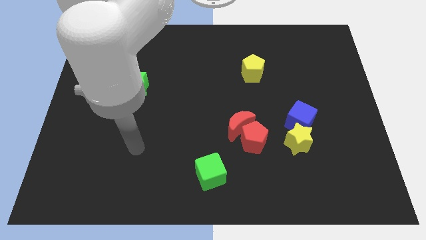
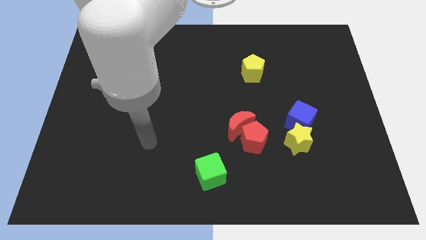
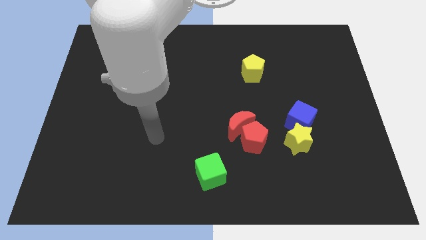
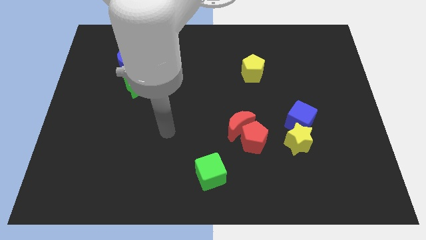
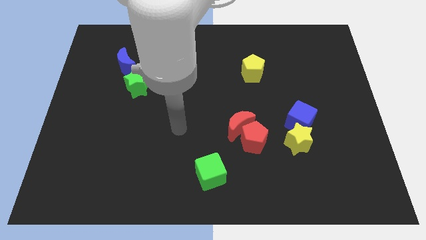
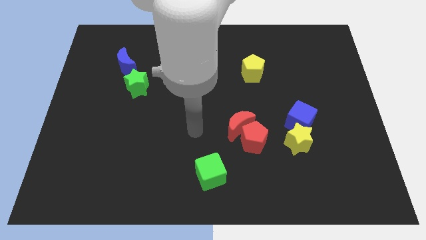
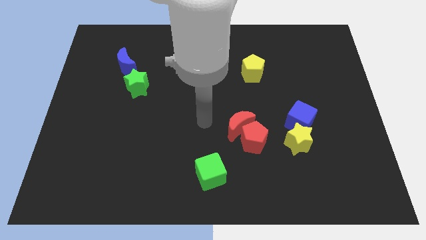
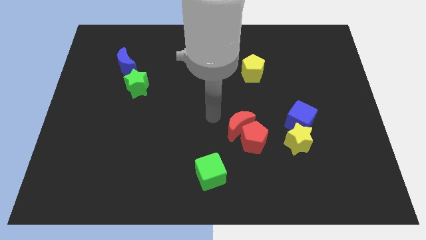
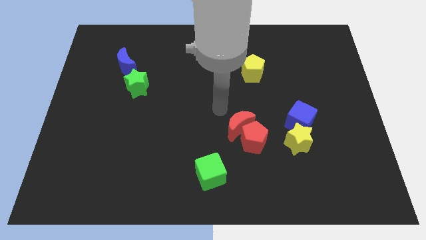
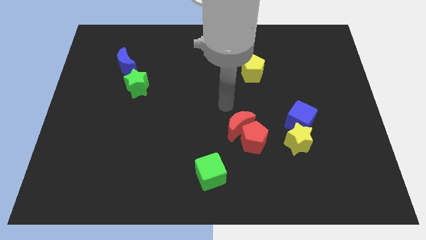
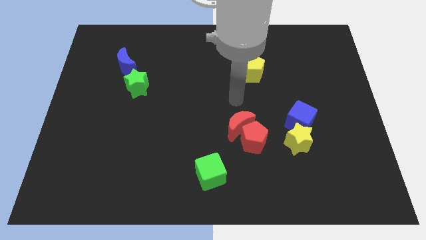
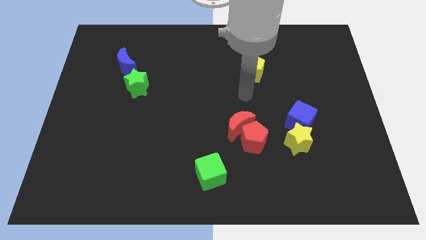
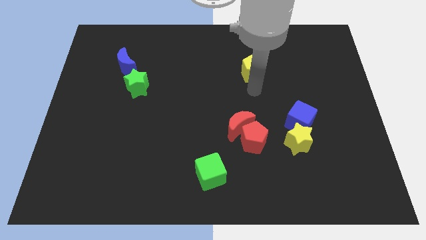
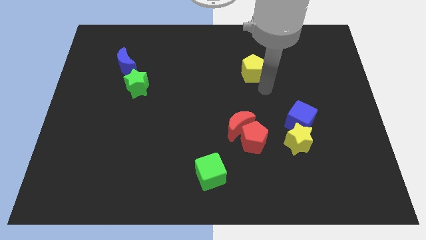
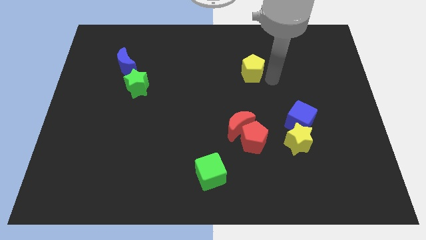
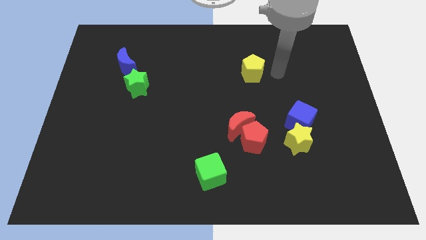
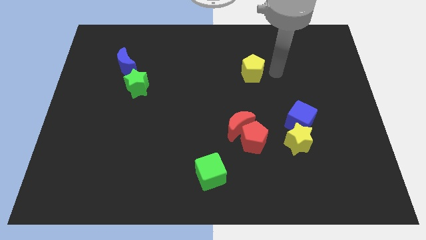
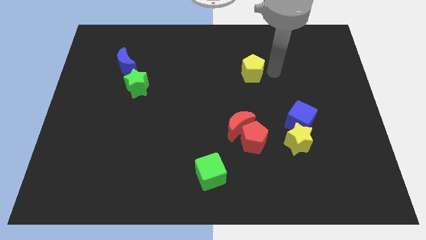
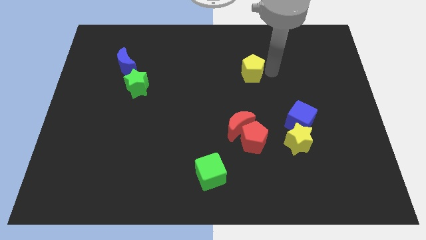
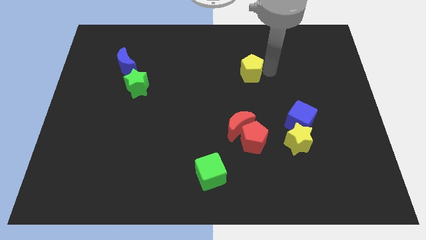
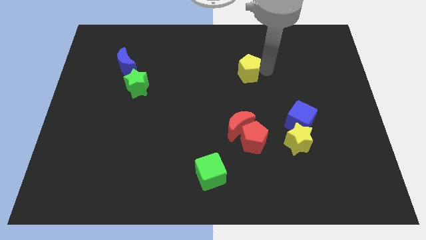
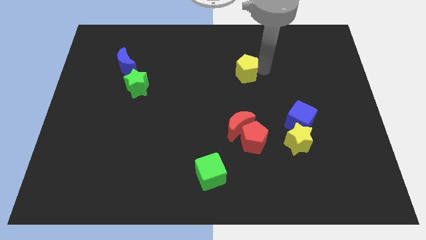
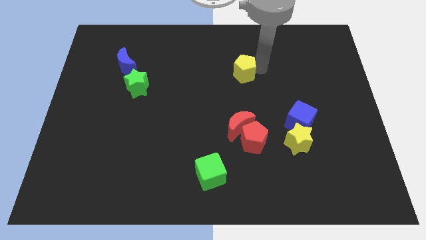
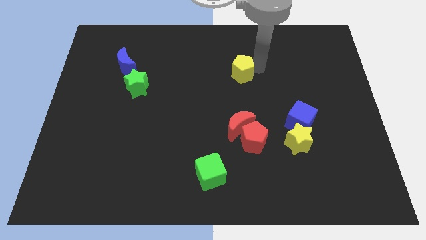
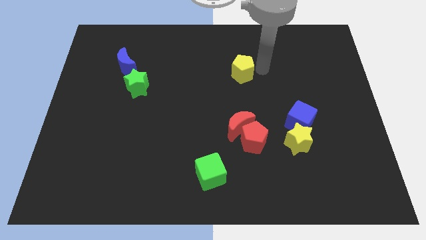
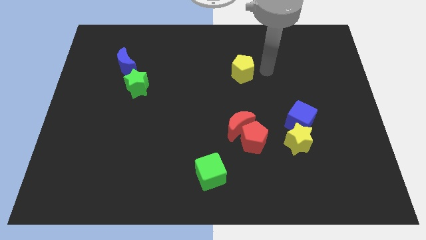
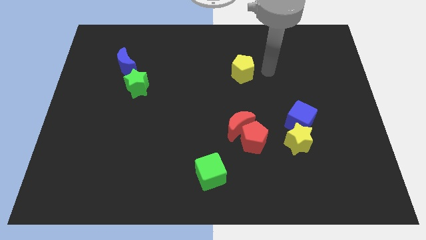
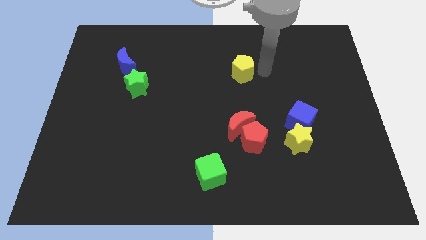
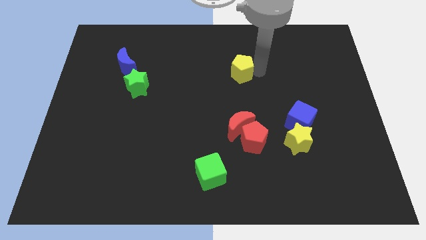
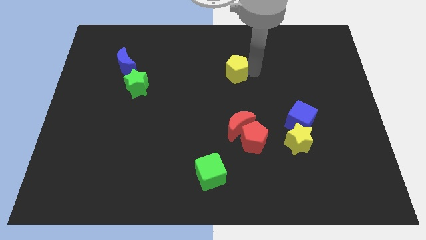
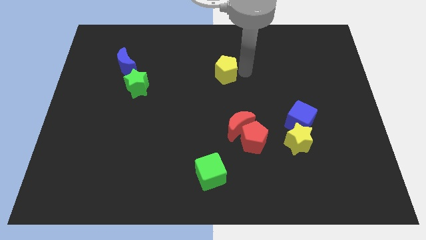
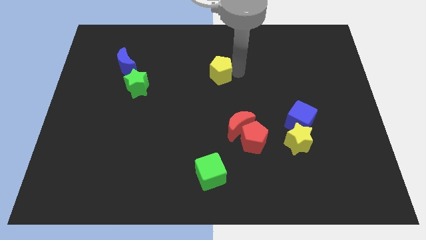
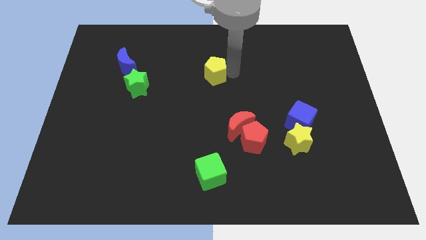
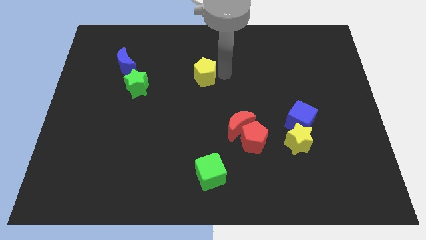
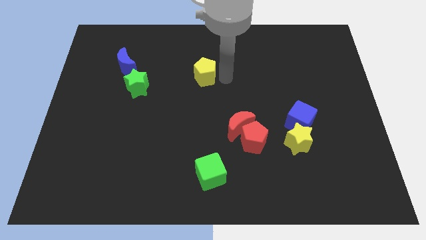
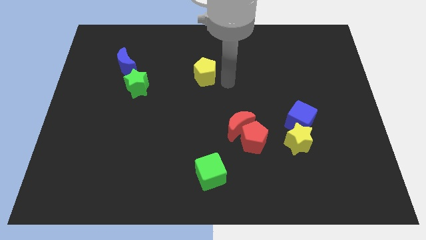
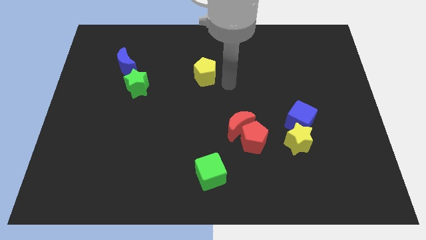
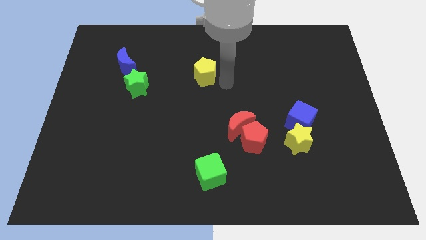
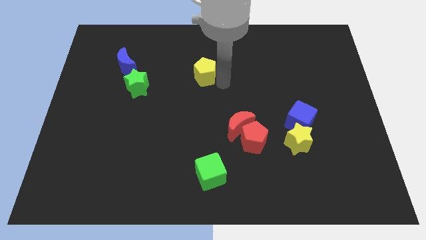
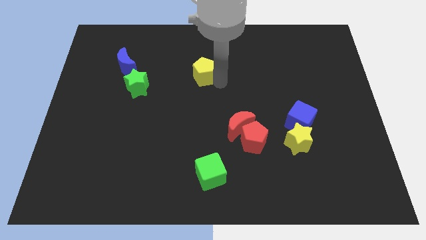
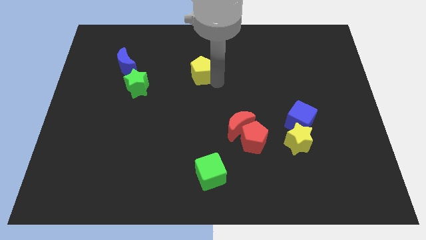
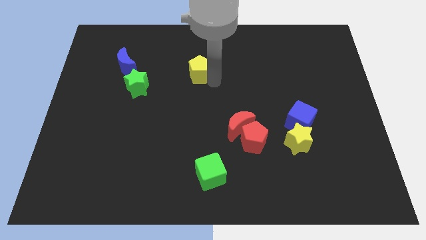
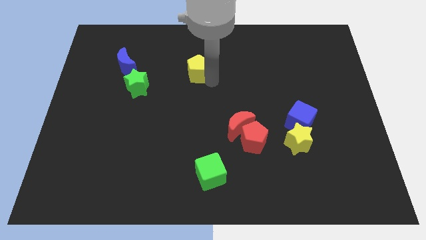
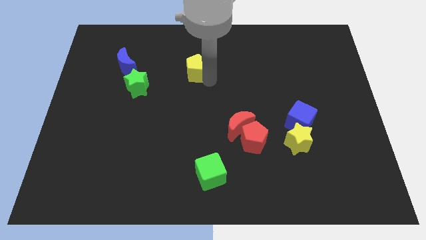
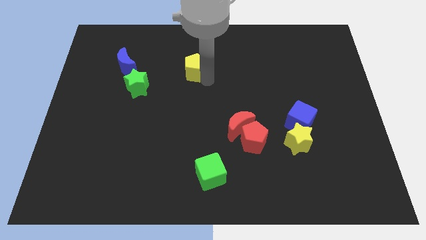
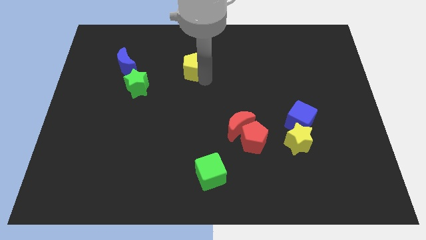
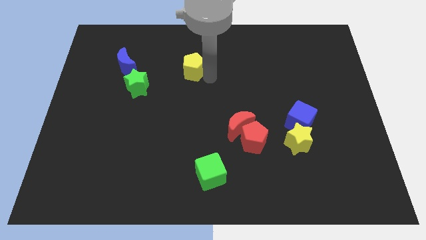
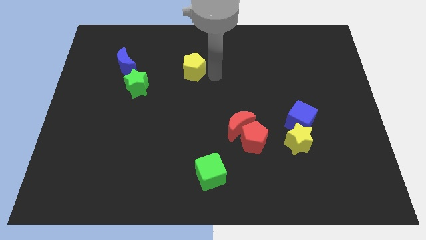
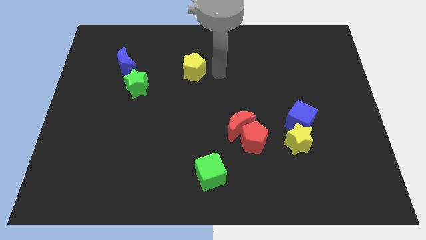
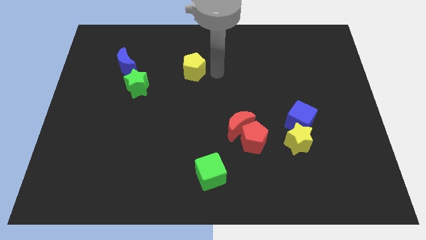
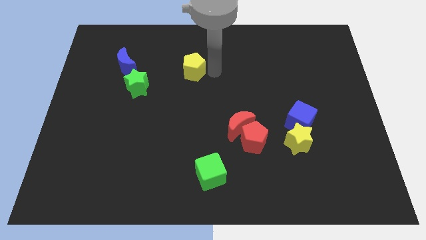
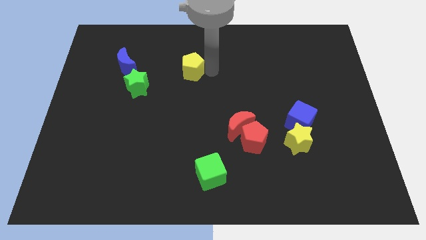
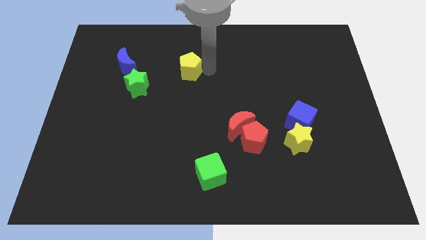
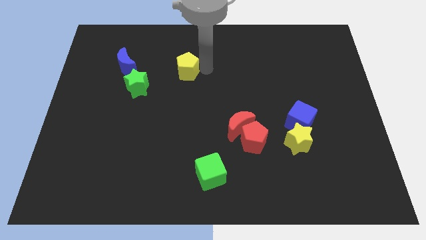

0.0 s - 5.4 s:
put the yellow pentagon to the right of the blue moon

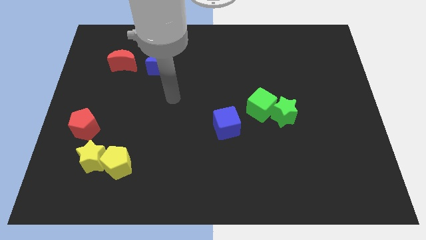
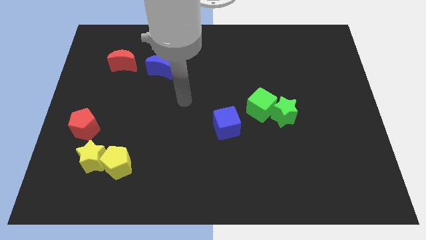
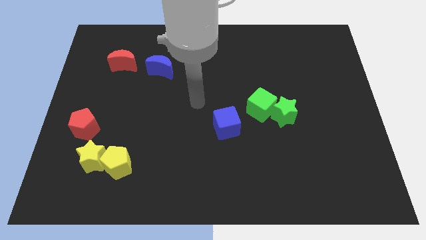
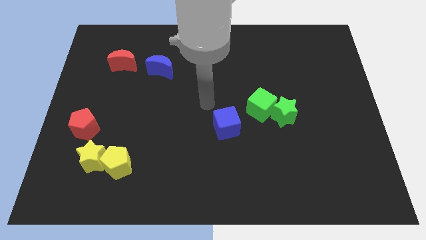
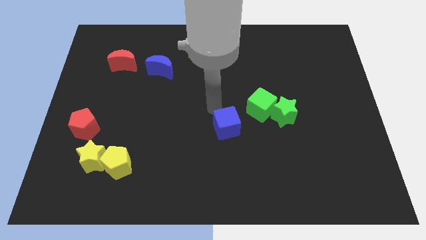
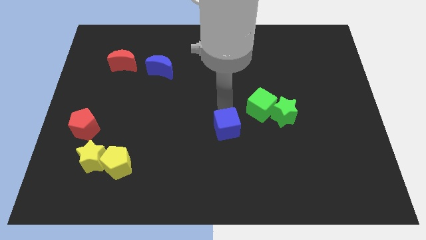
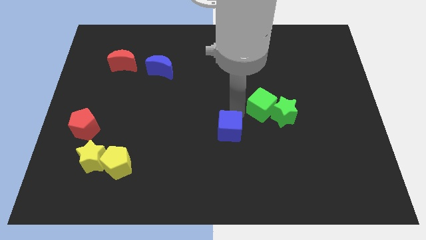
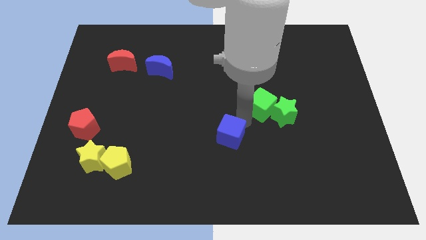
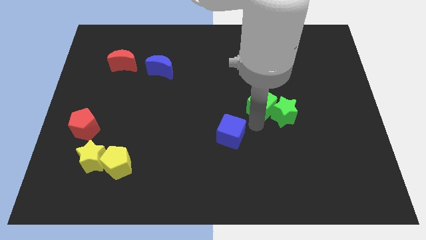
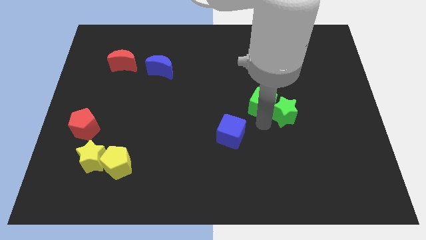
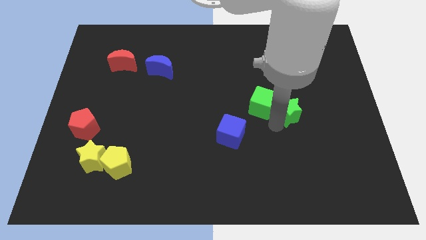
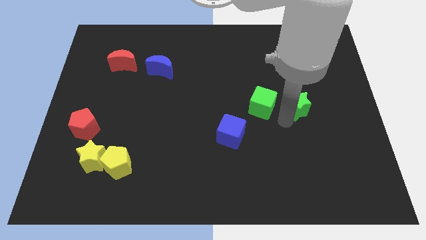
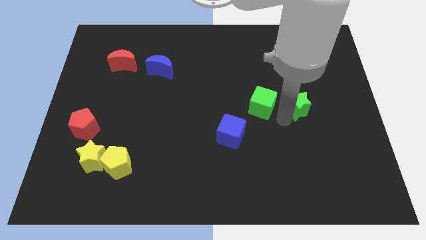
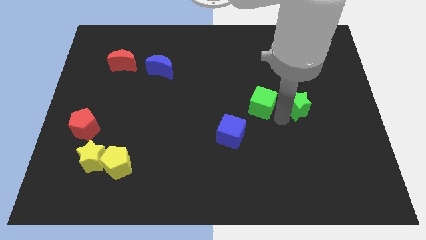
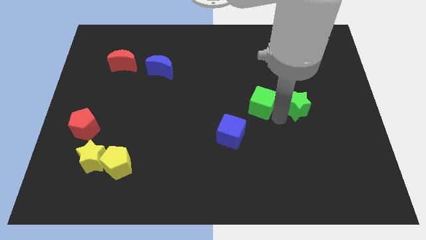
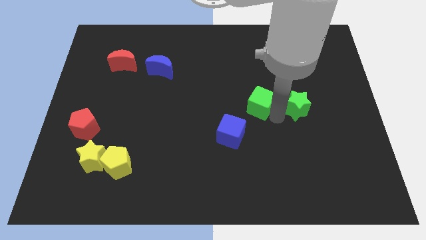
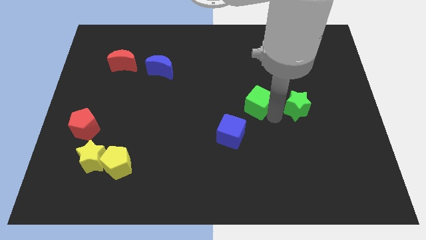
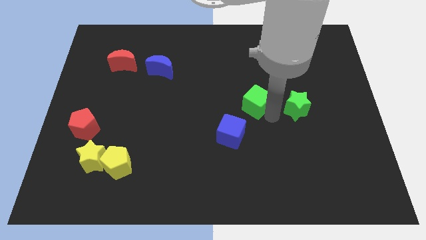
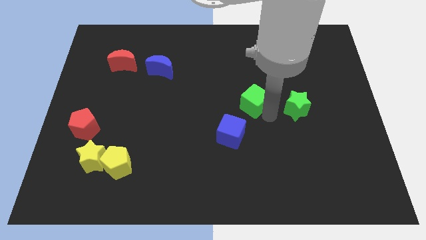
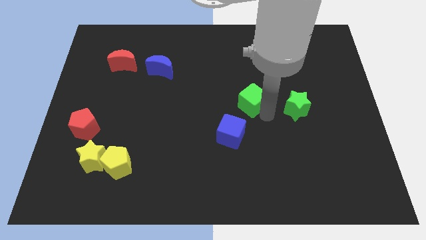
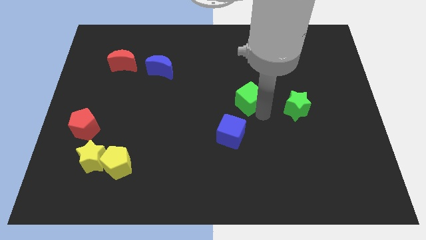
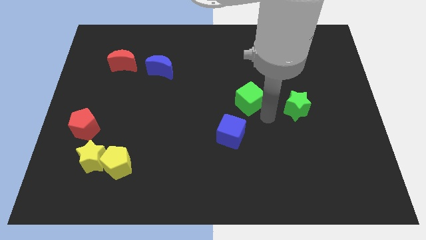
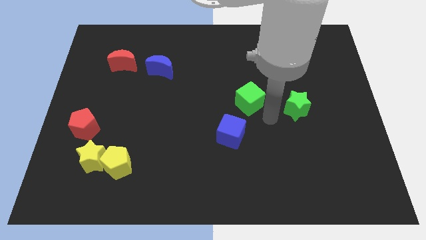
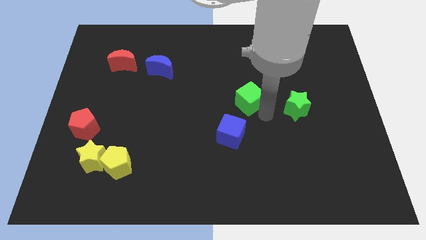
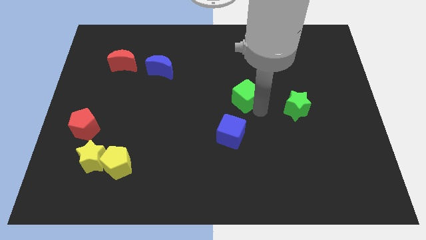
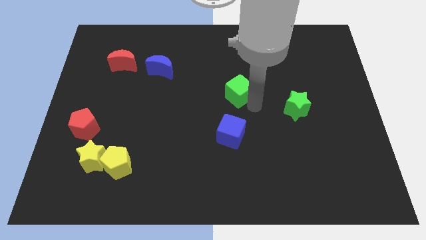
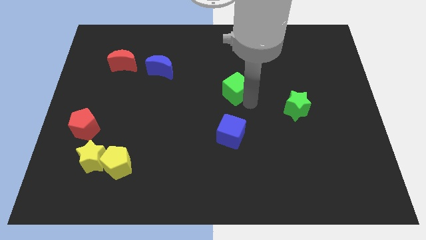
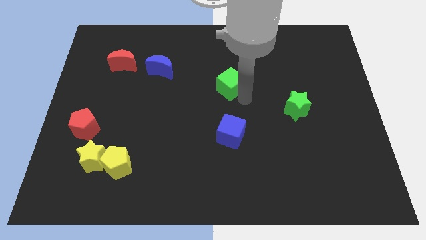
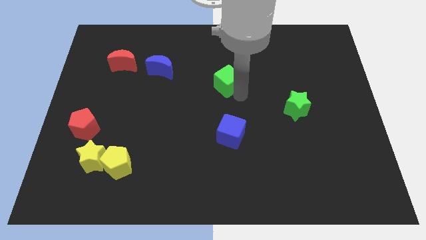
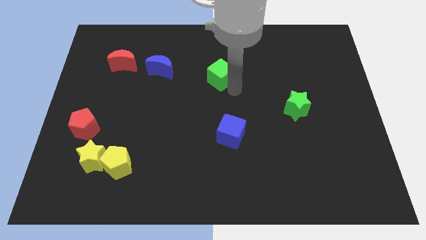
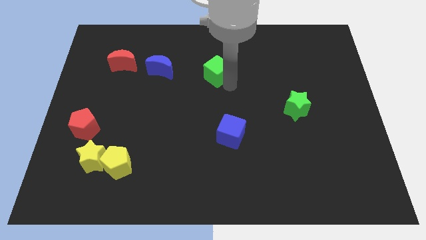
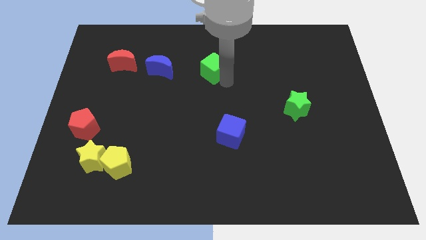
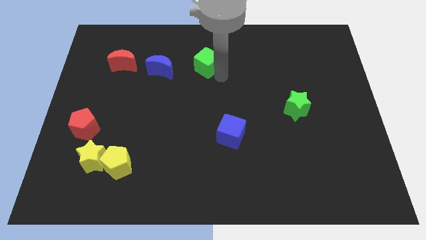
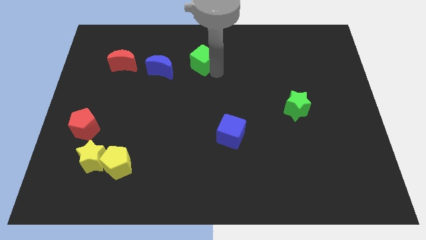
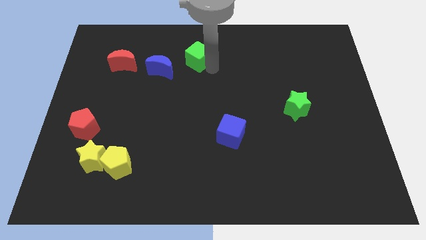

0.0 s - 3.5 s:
put the green cube diagonally up and to the right of the blue moon
